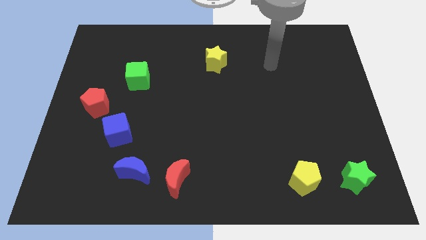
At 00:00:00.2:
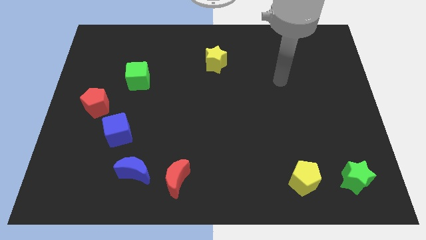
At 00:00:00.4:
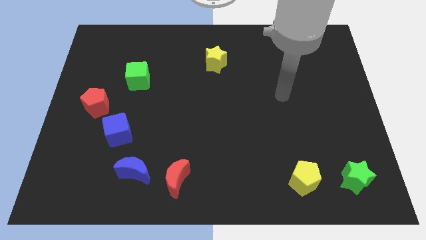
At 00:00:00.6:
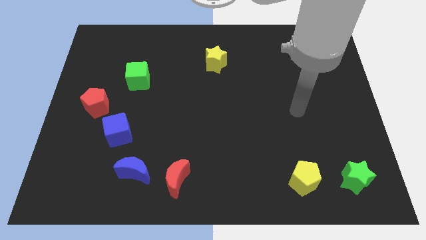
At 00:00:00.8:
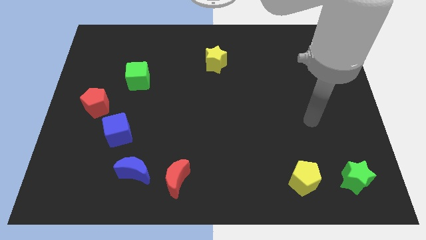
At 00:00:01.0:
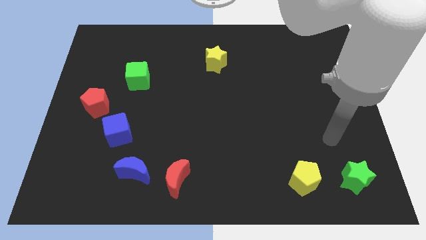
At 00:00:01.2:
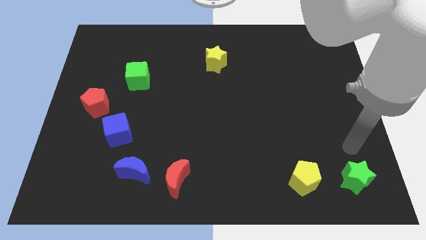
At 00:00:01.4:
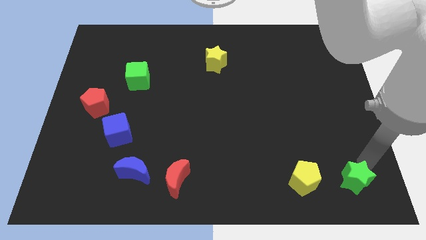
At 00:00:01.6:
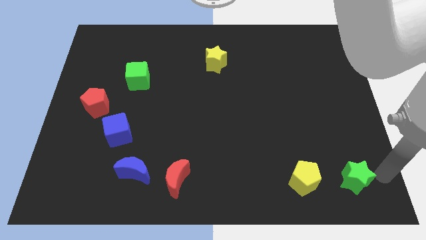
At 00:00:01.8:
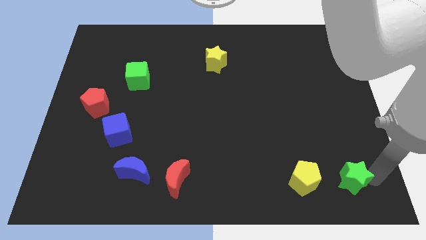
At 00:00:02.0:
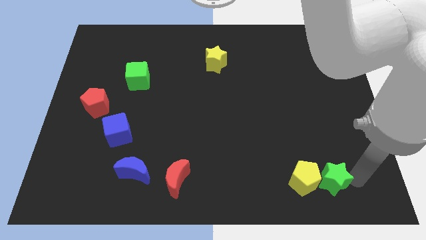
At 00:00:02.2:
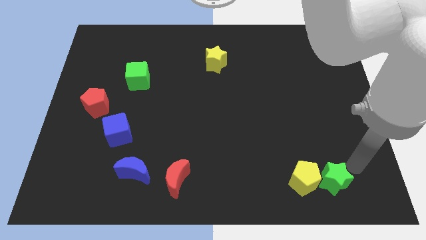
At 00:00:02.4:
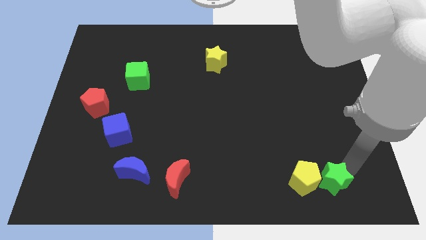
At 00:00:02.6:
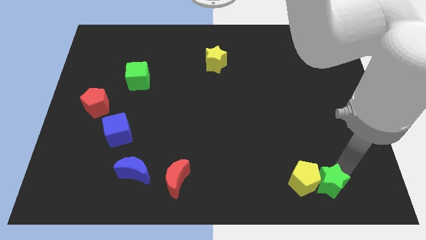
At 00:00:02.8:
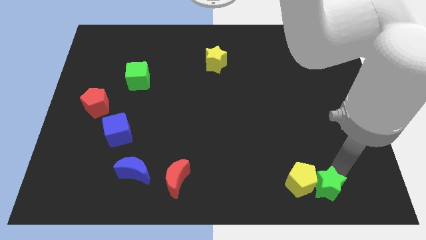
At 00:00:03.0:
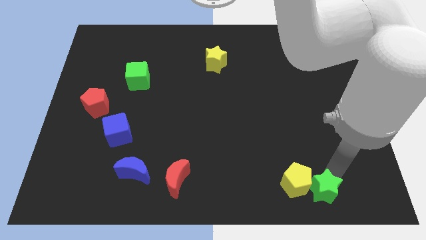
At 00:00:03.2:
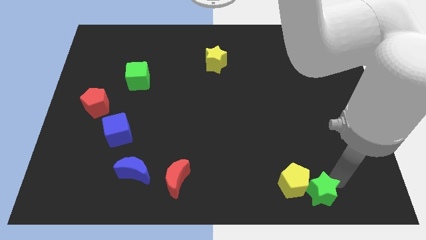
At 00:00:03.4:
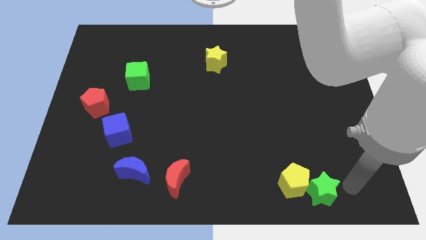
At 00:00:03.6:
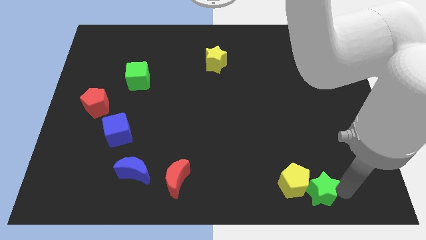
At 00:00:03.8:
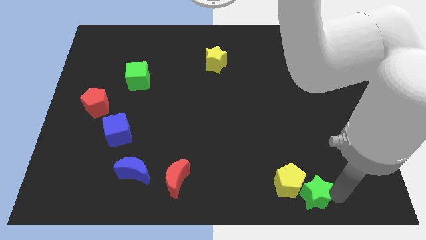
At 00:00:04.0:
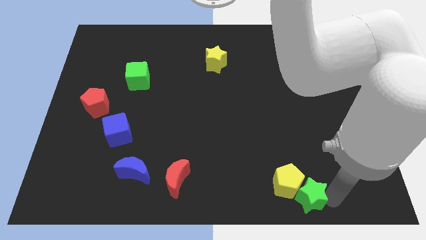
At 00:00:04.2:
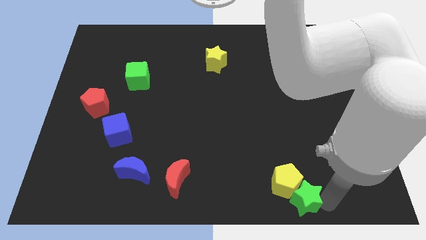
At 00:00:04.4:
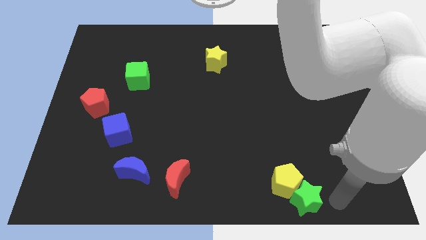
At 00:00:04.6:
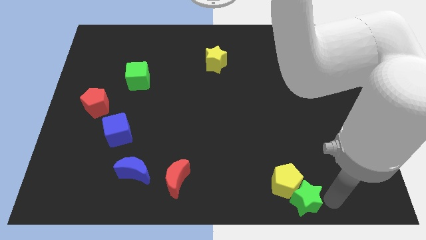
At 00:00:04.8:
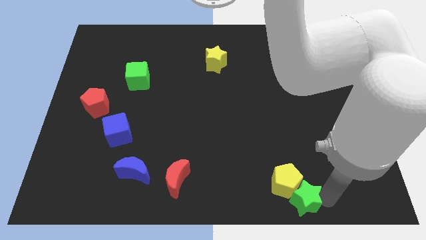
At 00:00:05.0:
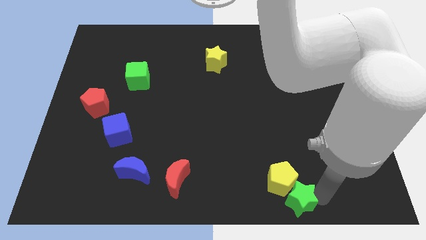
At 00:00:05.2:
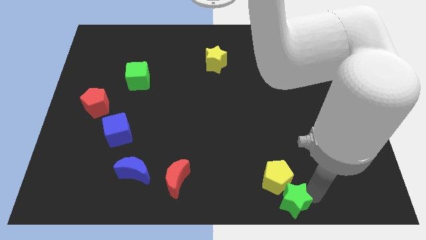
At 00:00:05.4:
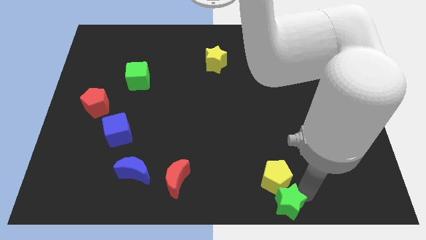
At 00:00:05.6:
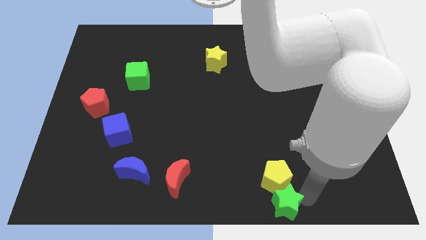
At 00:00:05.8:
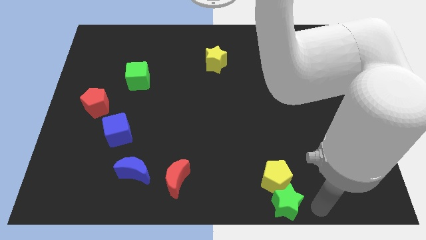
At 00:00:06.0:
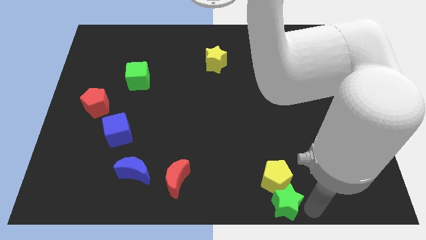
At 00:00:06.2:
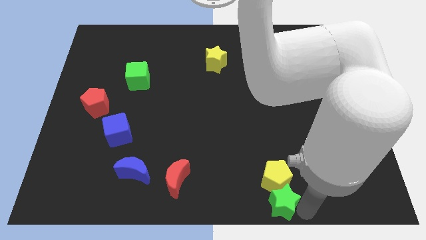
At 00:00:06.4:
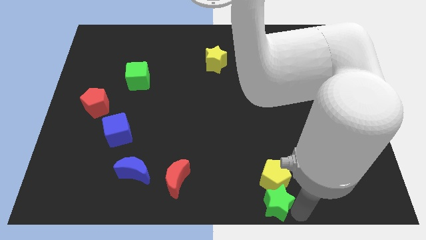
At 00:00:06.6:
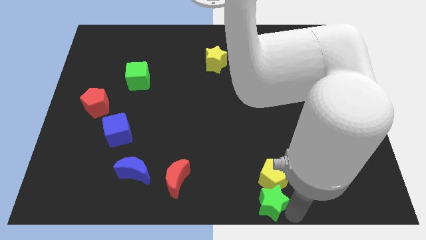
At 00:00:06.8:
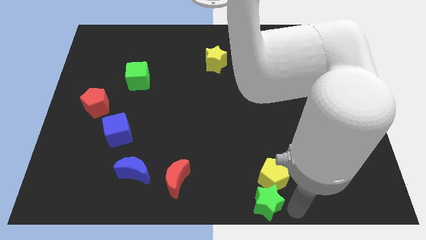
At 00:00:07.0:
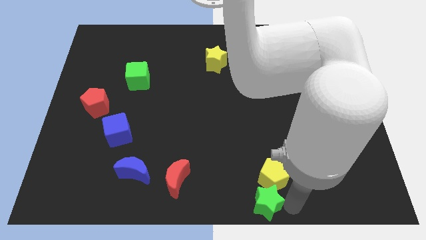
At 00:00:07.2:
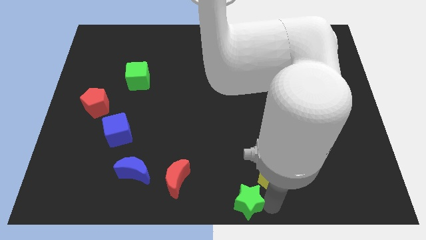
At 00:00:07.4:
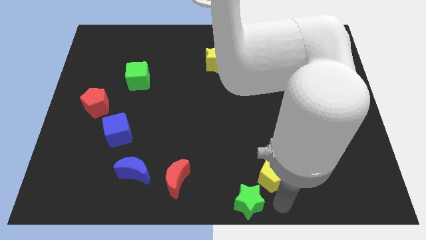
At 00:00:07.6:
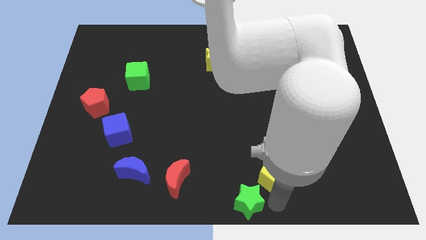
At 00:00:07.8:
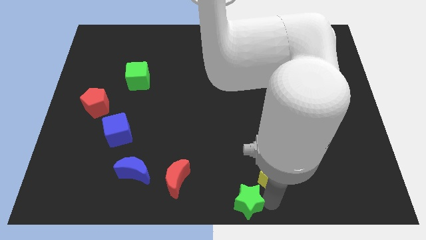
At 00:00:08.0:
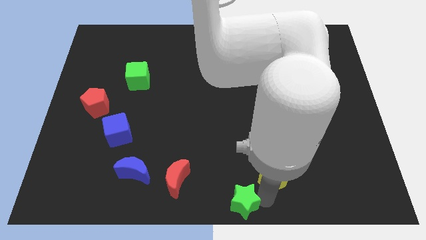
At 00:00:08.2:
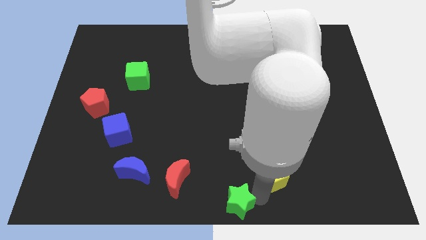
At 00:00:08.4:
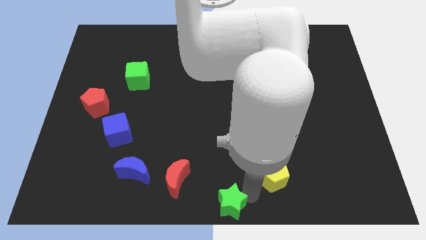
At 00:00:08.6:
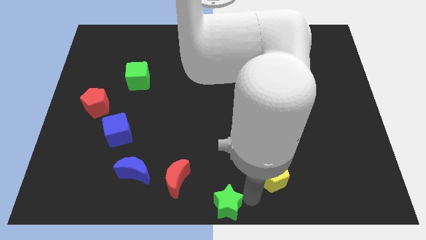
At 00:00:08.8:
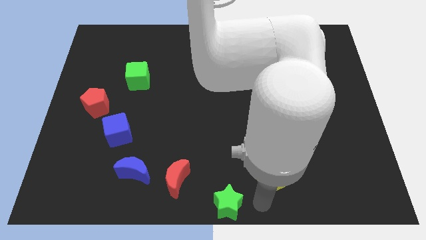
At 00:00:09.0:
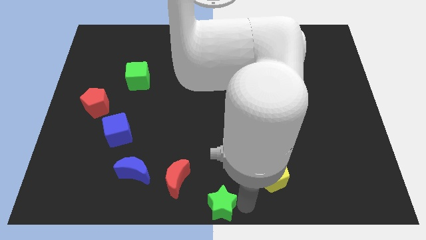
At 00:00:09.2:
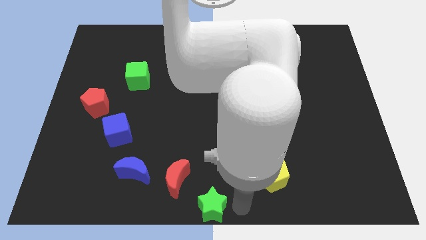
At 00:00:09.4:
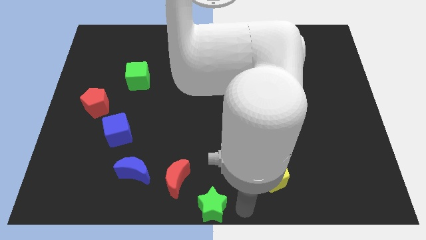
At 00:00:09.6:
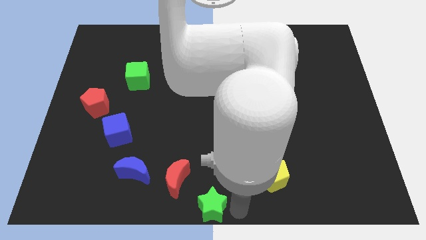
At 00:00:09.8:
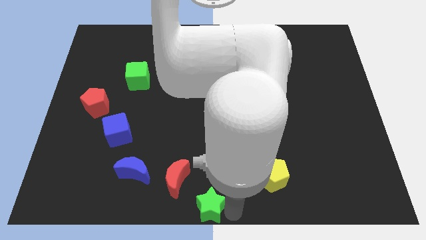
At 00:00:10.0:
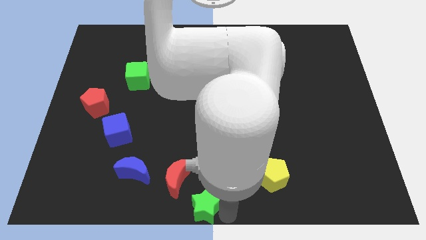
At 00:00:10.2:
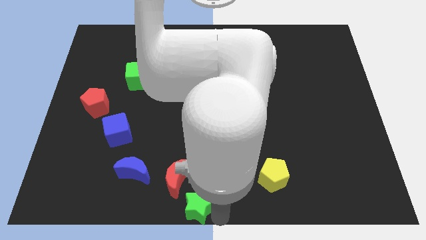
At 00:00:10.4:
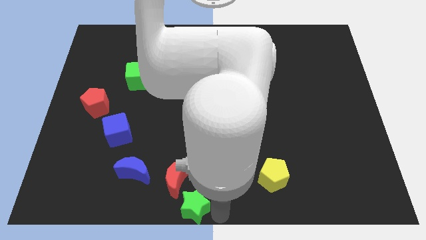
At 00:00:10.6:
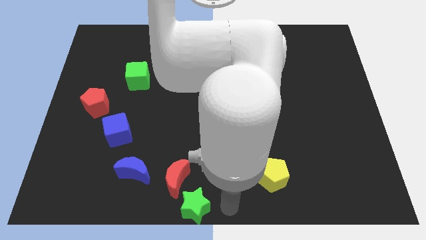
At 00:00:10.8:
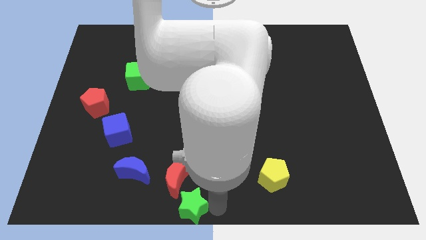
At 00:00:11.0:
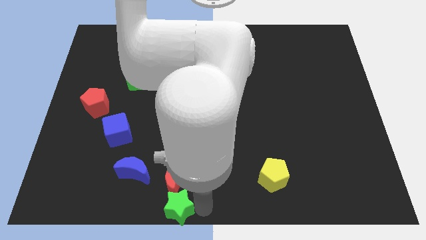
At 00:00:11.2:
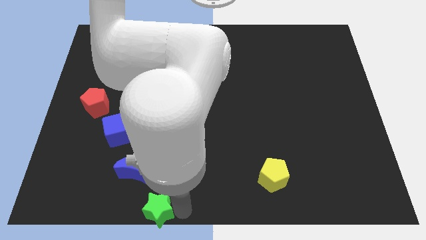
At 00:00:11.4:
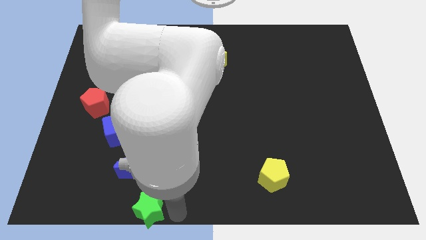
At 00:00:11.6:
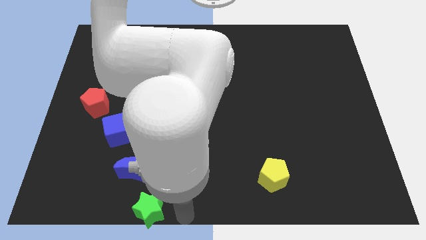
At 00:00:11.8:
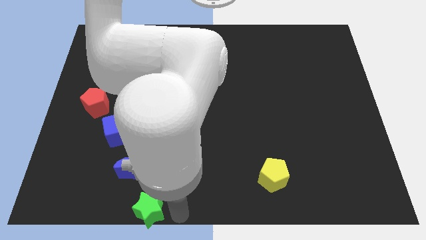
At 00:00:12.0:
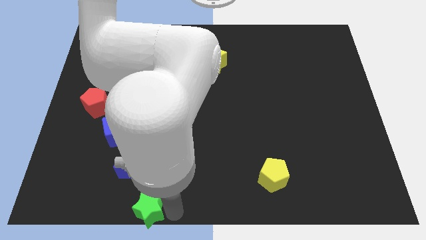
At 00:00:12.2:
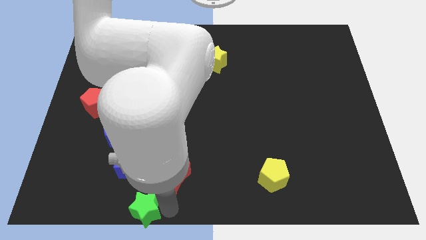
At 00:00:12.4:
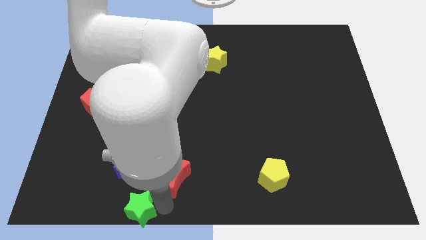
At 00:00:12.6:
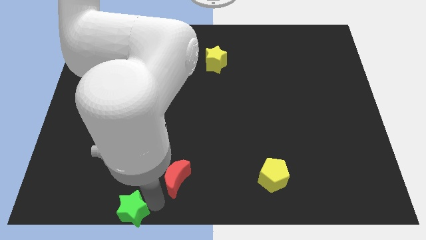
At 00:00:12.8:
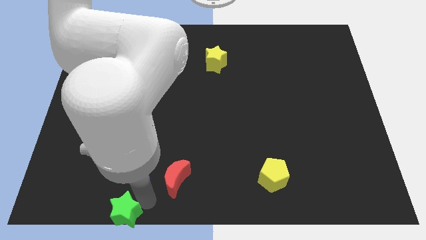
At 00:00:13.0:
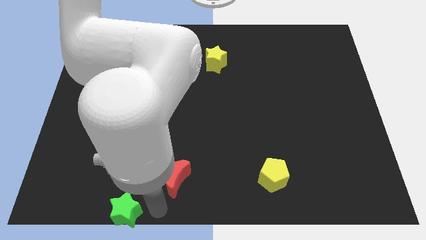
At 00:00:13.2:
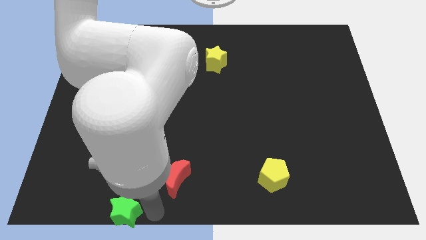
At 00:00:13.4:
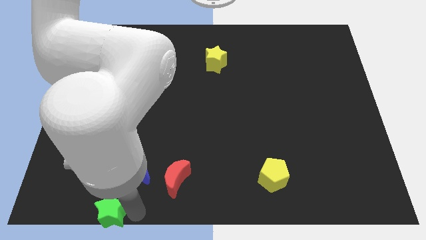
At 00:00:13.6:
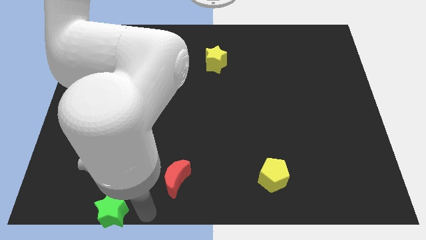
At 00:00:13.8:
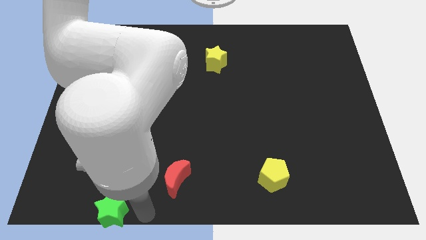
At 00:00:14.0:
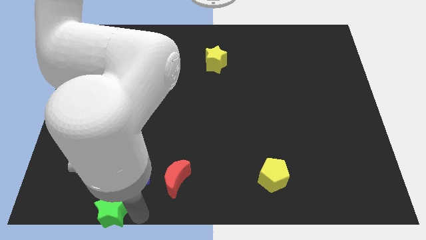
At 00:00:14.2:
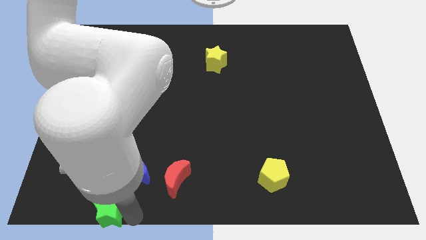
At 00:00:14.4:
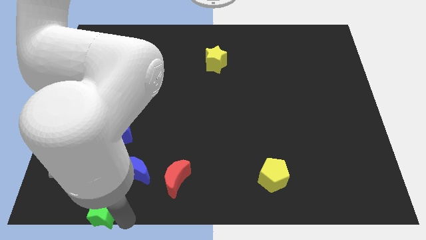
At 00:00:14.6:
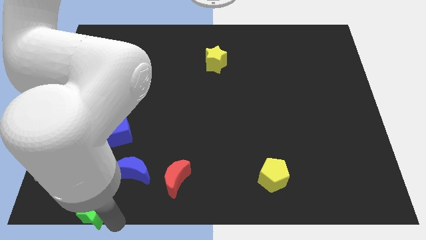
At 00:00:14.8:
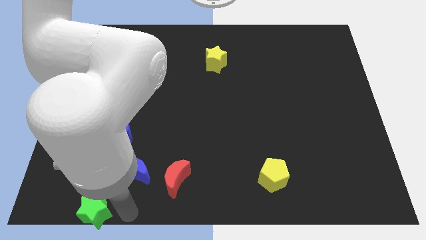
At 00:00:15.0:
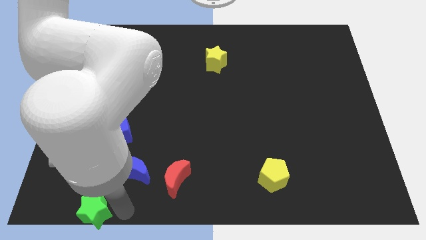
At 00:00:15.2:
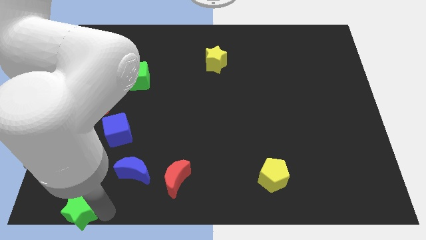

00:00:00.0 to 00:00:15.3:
push the green star to the bottom left
